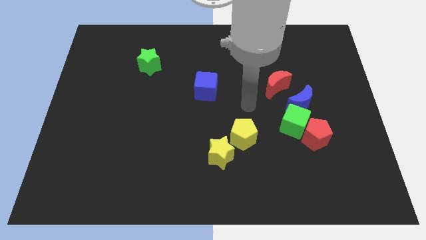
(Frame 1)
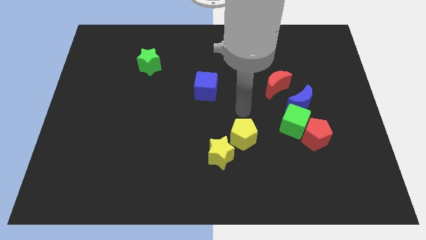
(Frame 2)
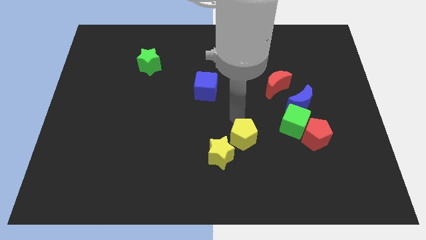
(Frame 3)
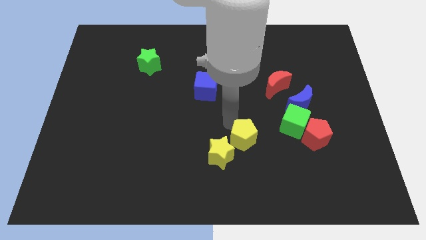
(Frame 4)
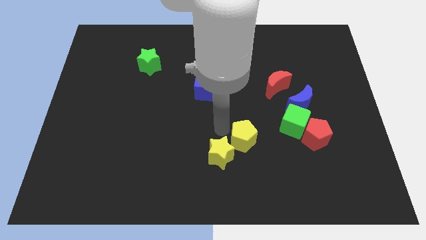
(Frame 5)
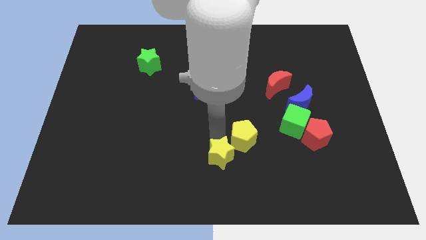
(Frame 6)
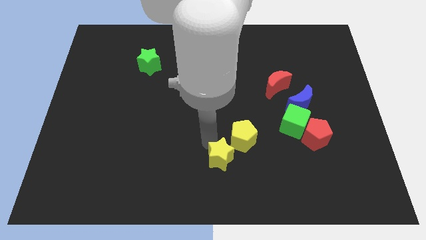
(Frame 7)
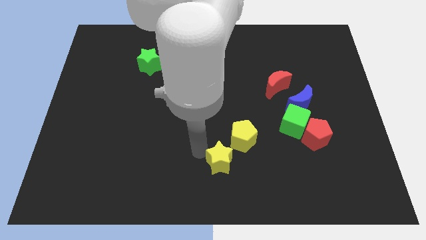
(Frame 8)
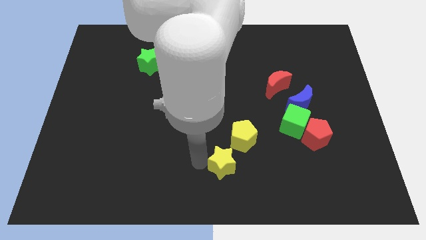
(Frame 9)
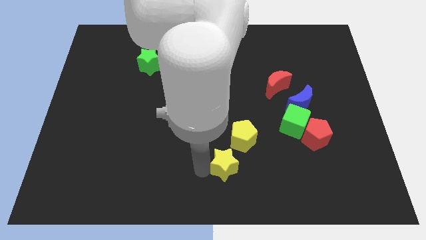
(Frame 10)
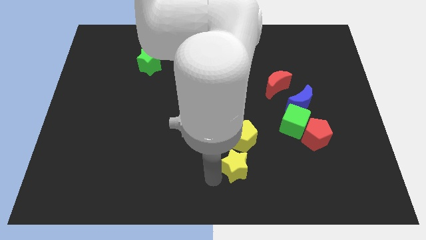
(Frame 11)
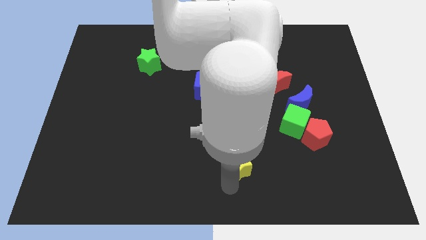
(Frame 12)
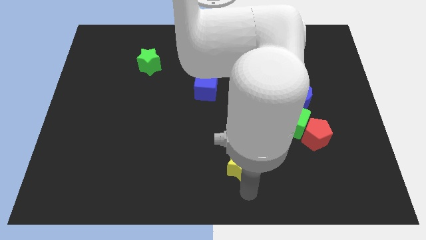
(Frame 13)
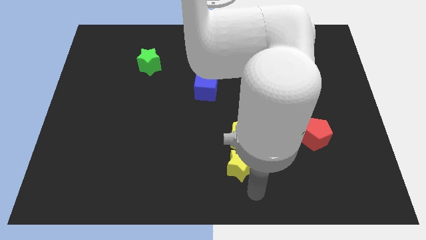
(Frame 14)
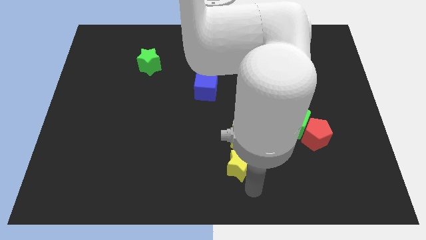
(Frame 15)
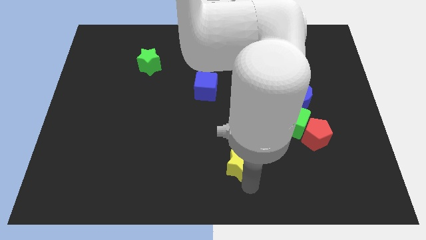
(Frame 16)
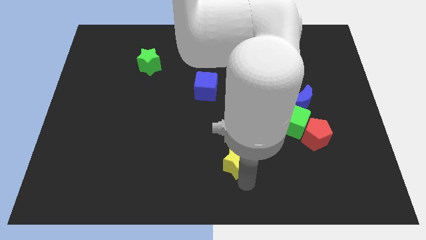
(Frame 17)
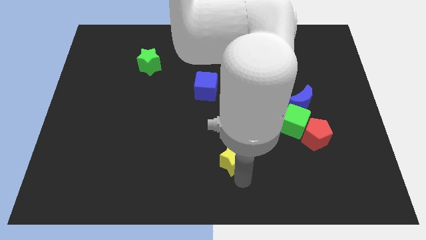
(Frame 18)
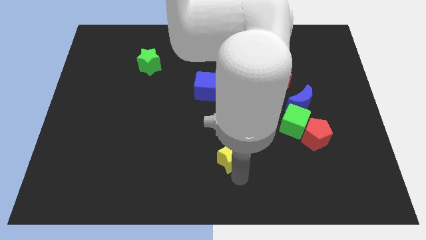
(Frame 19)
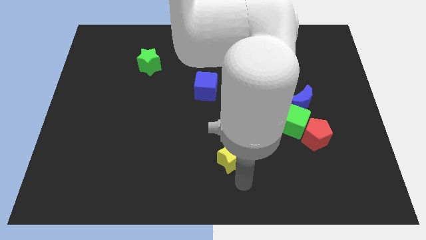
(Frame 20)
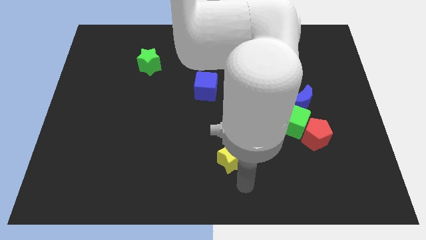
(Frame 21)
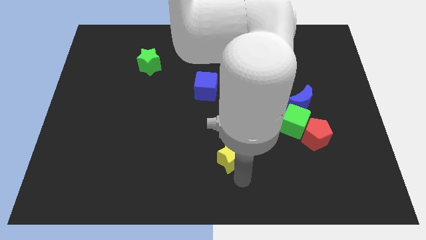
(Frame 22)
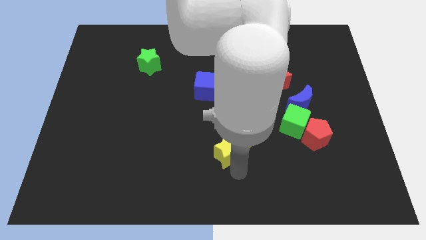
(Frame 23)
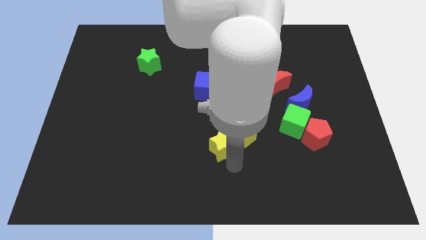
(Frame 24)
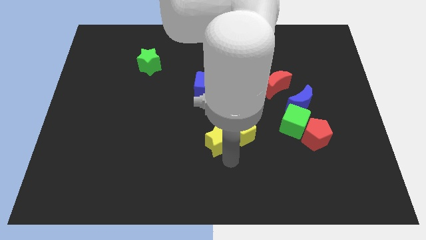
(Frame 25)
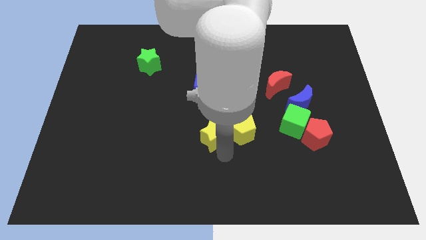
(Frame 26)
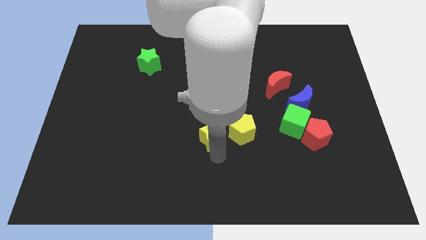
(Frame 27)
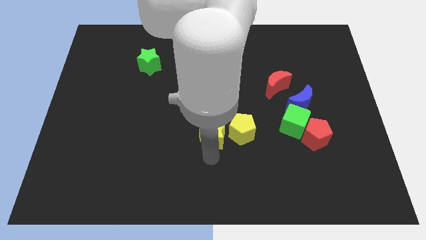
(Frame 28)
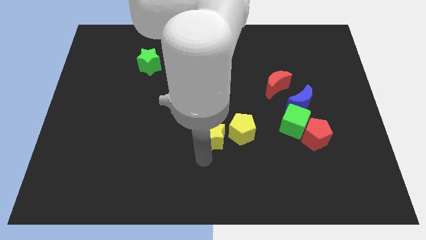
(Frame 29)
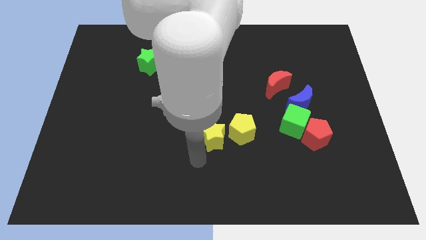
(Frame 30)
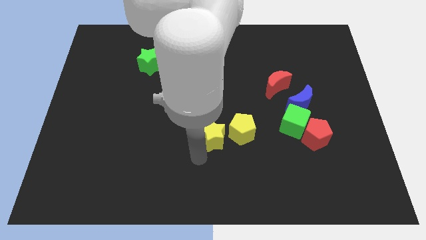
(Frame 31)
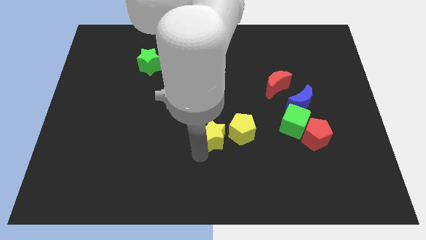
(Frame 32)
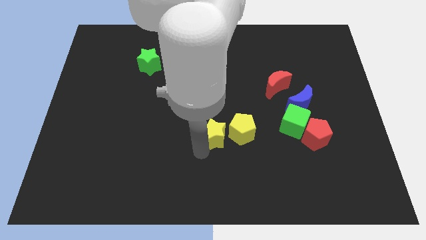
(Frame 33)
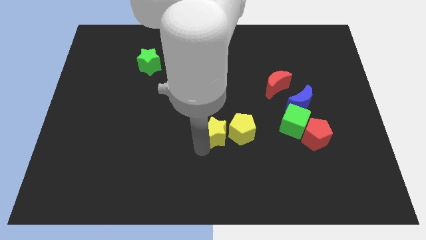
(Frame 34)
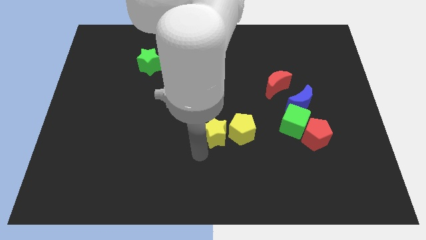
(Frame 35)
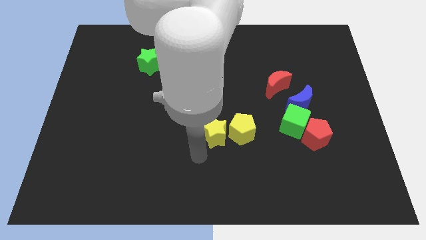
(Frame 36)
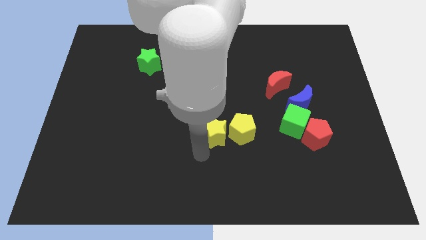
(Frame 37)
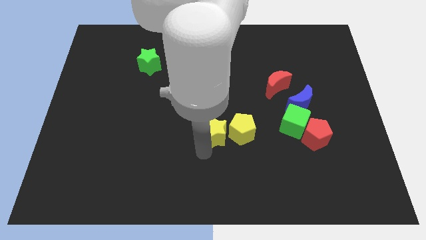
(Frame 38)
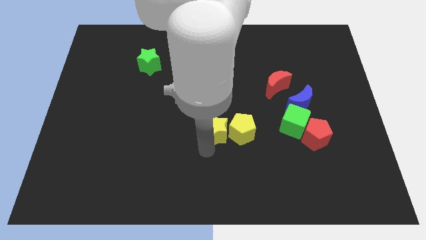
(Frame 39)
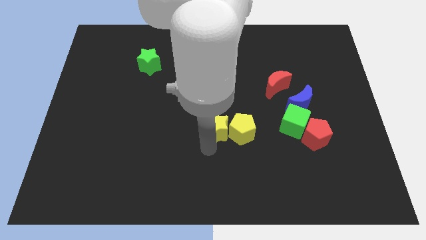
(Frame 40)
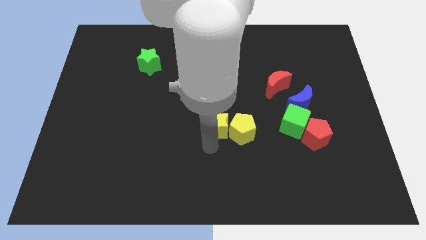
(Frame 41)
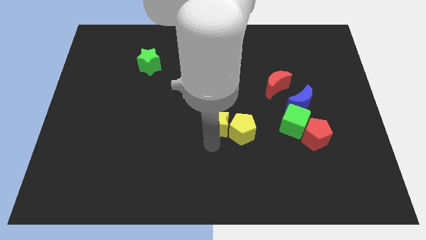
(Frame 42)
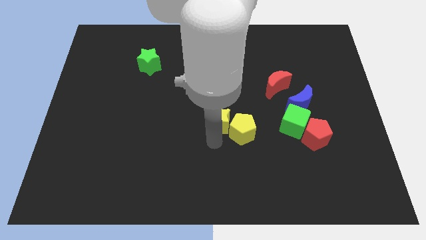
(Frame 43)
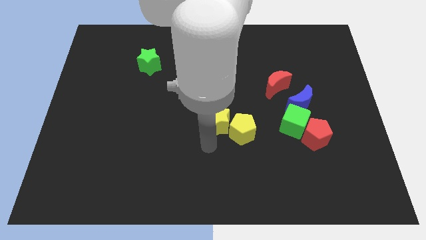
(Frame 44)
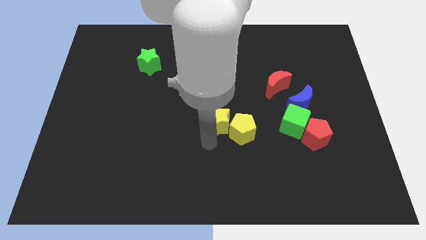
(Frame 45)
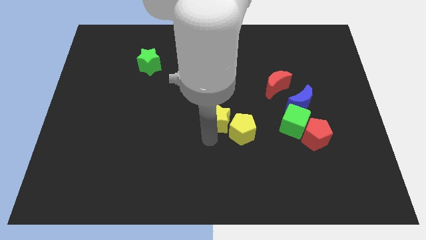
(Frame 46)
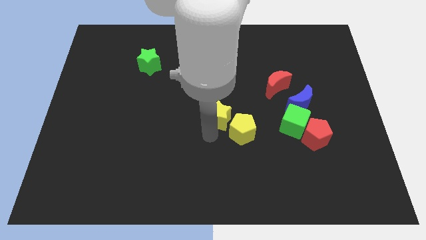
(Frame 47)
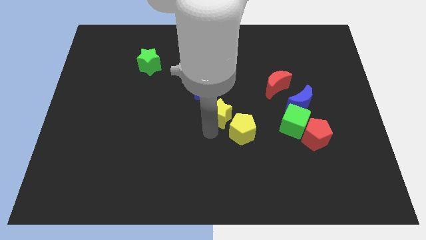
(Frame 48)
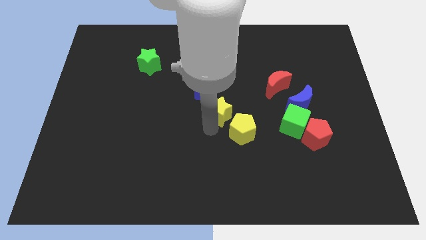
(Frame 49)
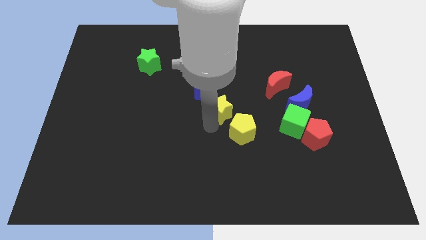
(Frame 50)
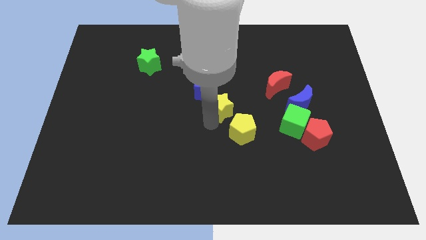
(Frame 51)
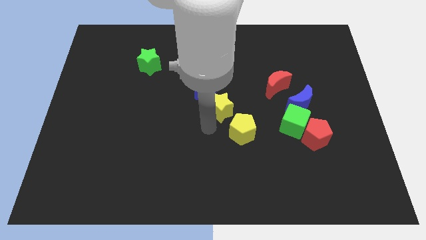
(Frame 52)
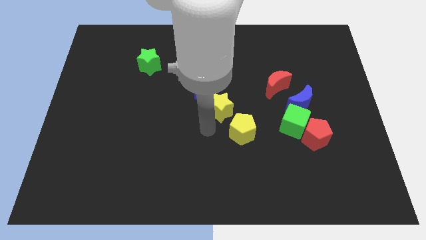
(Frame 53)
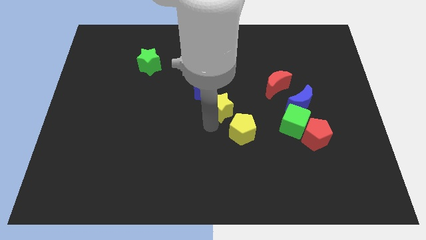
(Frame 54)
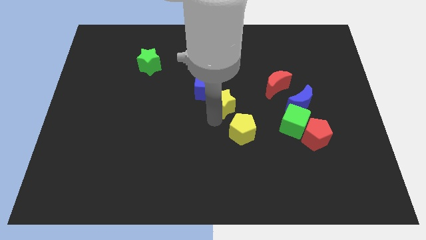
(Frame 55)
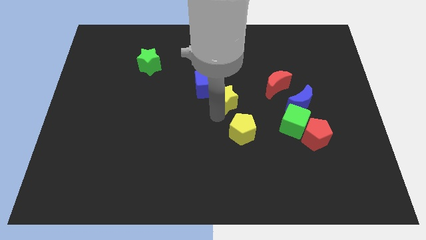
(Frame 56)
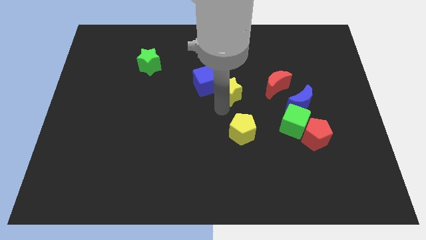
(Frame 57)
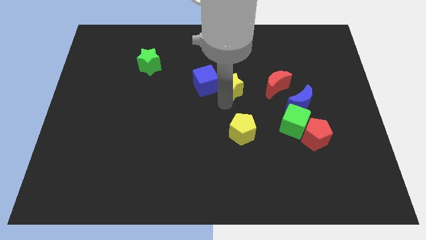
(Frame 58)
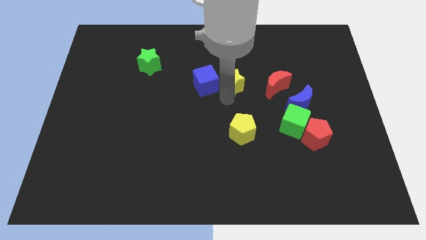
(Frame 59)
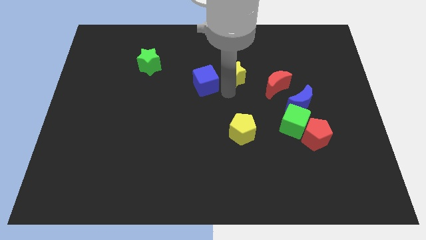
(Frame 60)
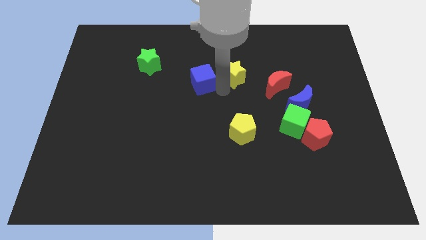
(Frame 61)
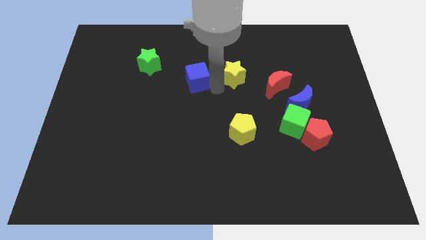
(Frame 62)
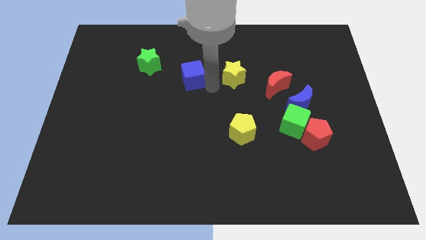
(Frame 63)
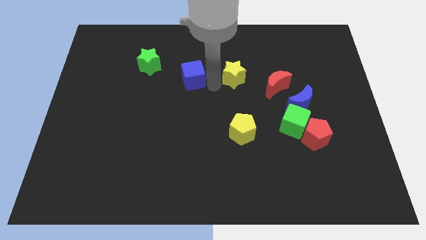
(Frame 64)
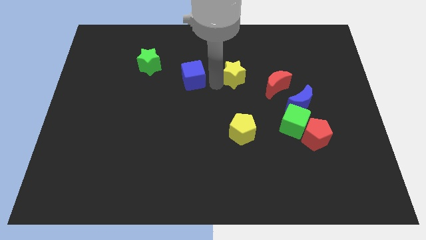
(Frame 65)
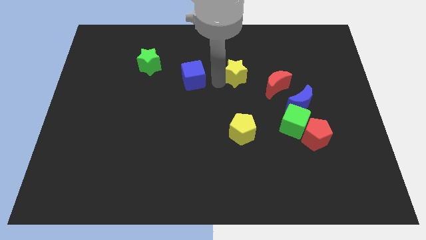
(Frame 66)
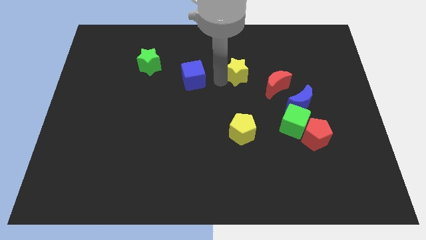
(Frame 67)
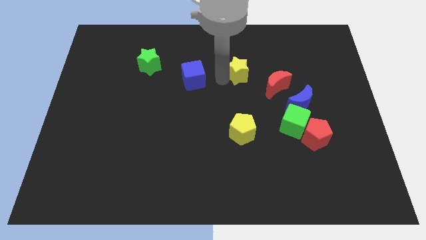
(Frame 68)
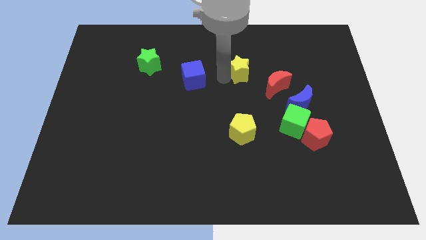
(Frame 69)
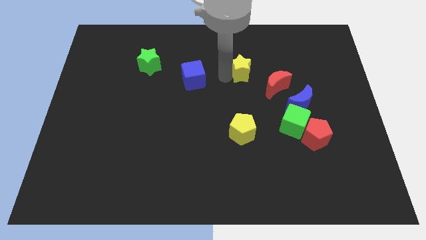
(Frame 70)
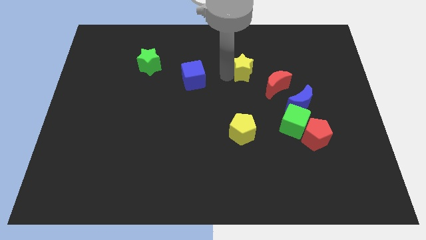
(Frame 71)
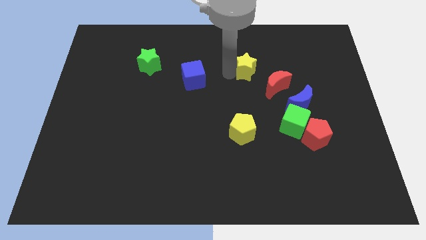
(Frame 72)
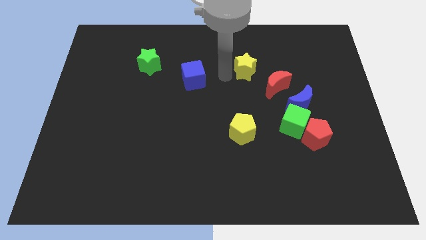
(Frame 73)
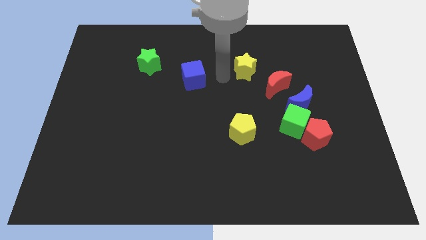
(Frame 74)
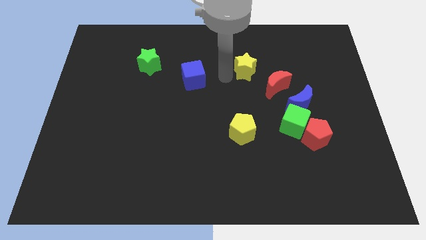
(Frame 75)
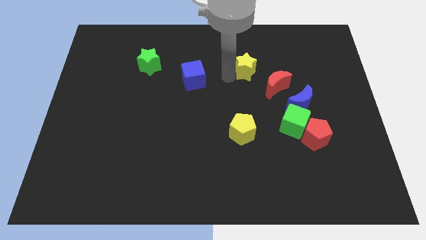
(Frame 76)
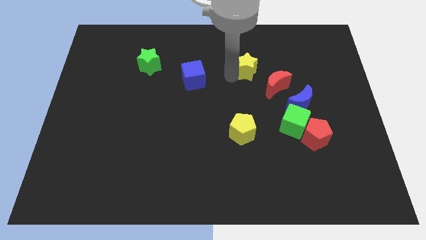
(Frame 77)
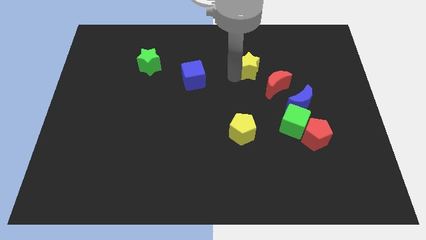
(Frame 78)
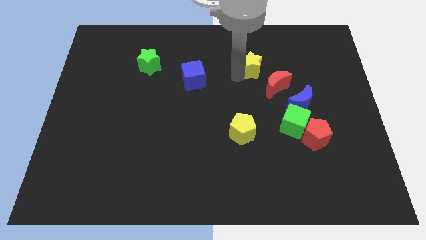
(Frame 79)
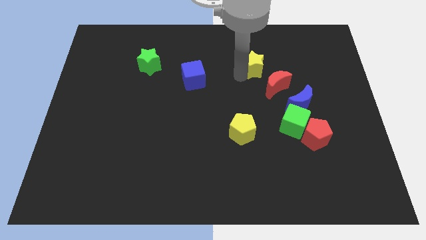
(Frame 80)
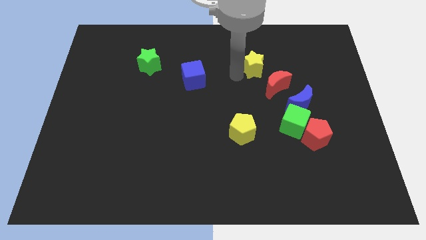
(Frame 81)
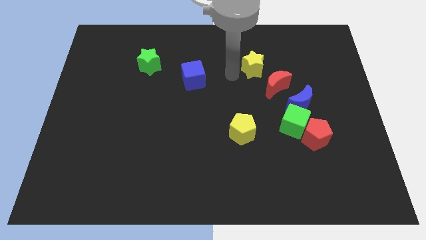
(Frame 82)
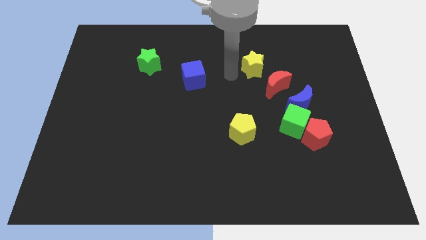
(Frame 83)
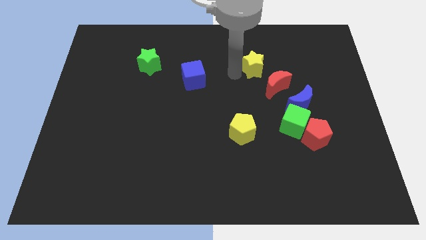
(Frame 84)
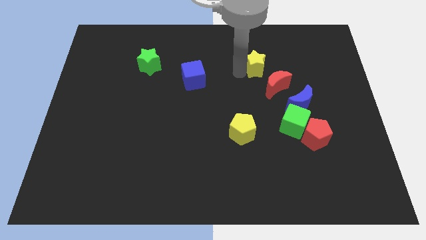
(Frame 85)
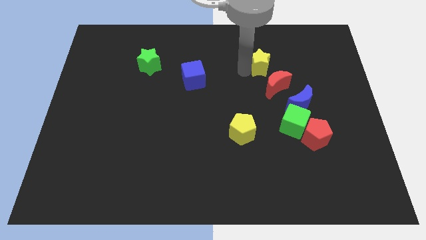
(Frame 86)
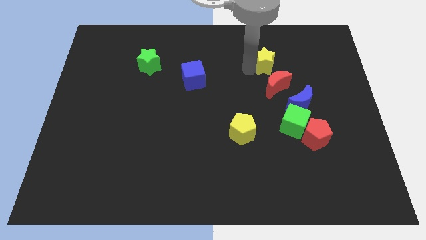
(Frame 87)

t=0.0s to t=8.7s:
push the yellow star upwards and to the right diagonally
